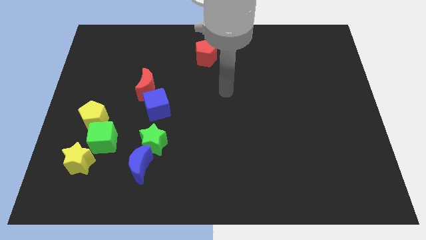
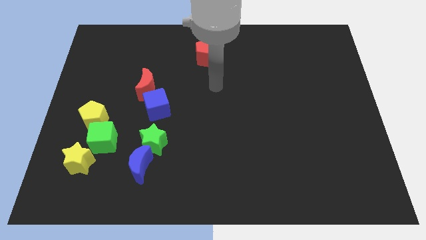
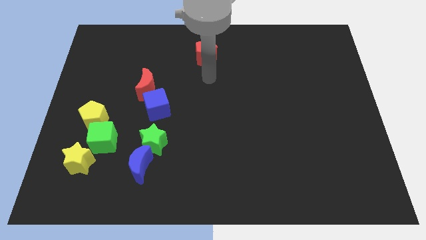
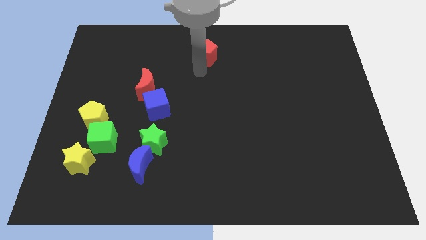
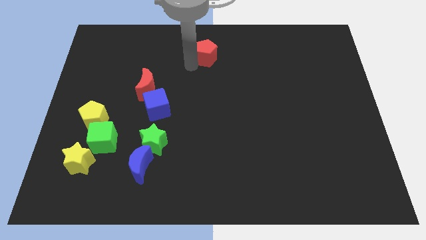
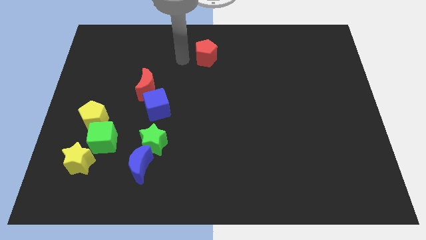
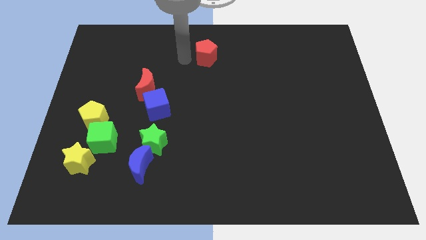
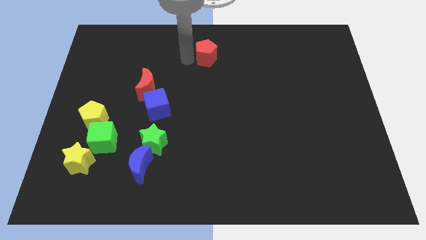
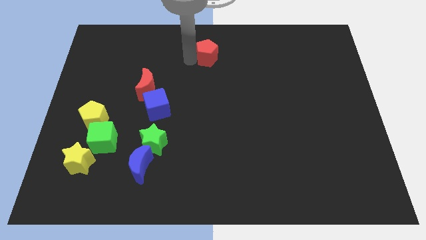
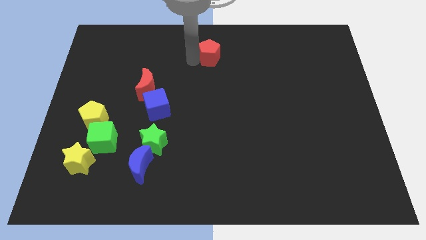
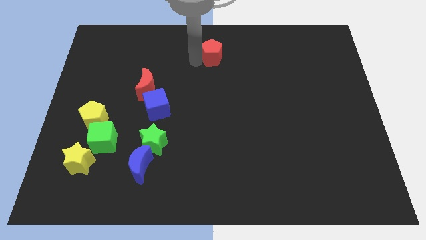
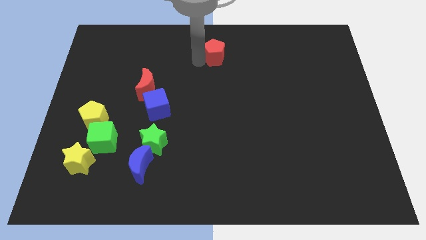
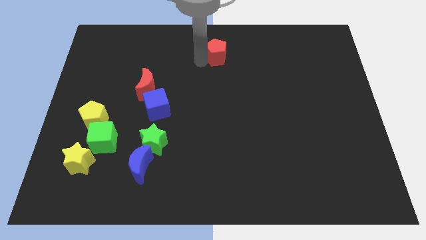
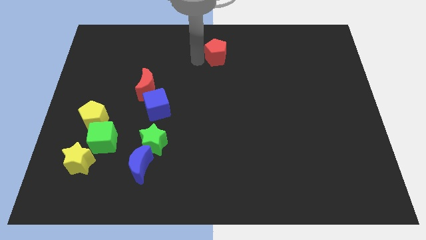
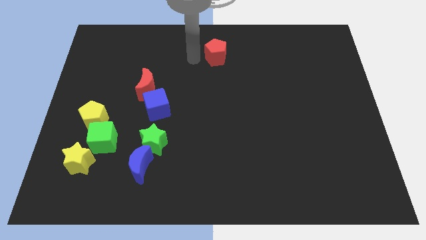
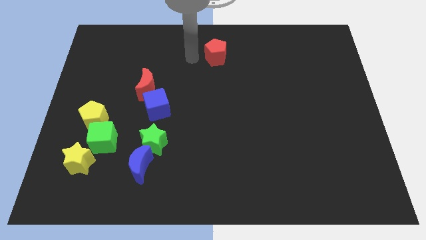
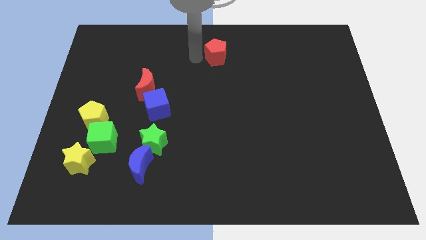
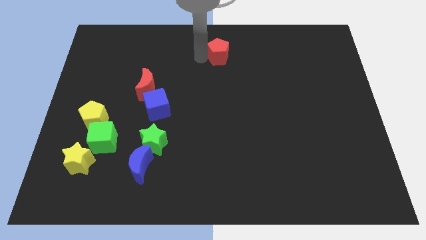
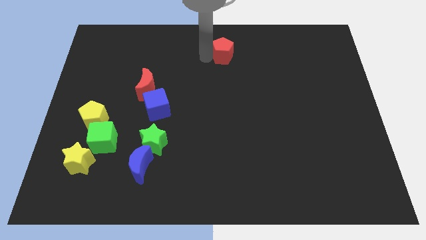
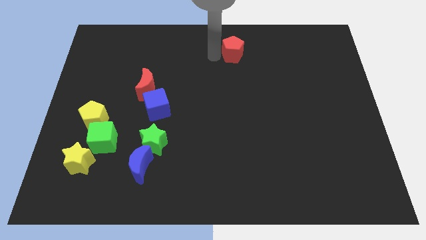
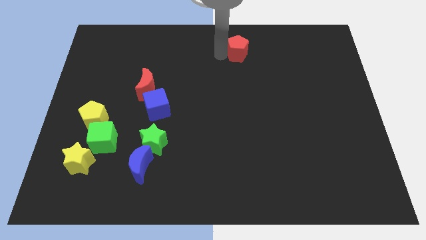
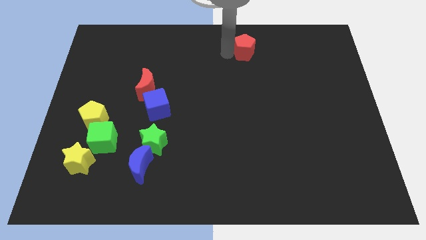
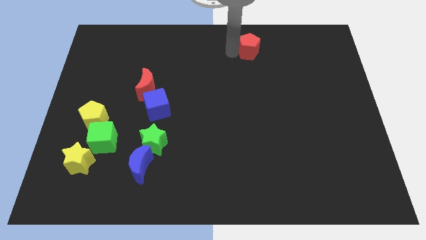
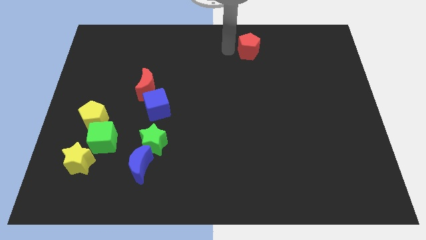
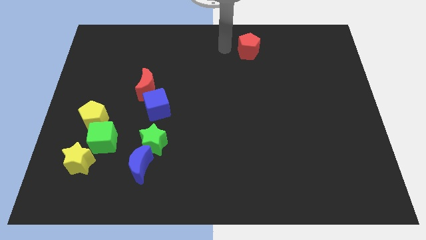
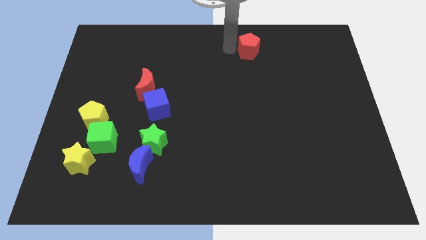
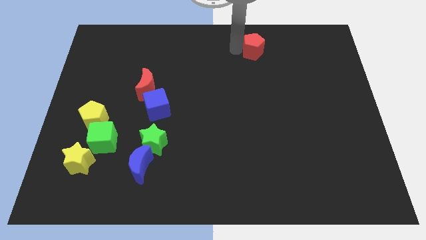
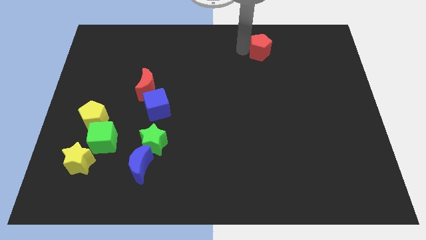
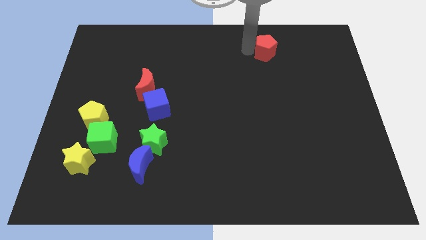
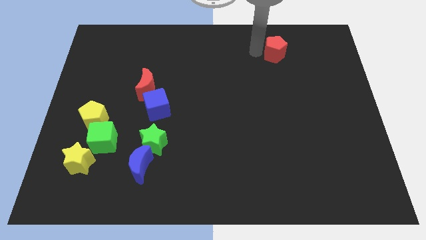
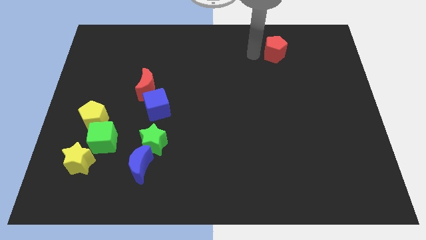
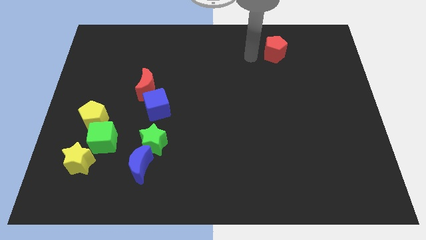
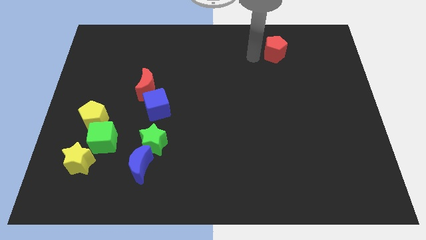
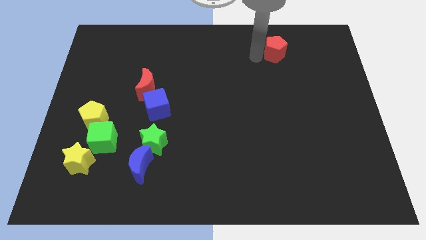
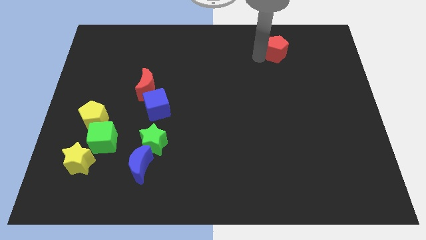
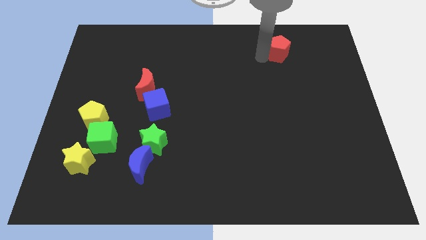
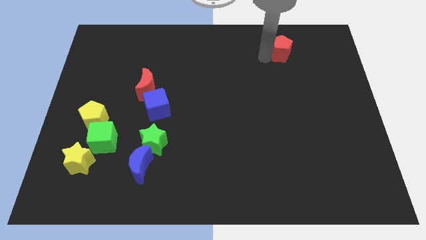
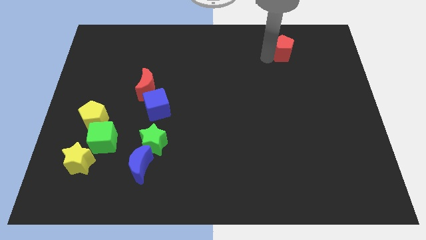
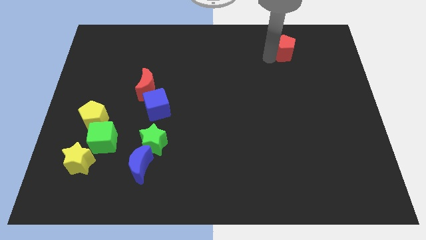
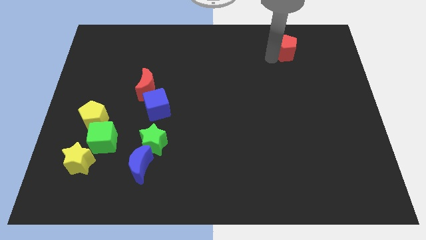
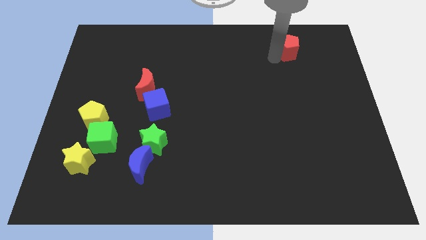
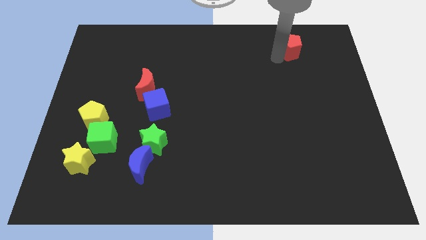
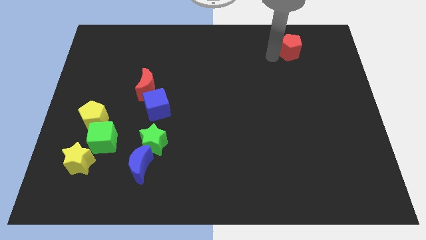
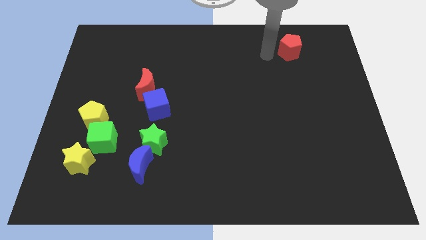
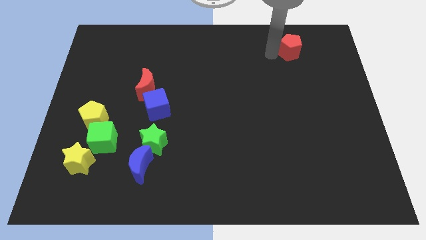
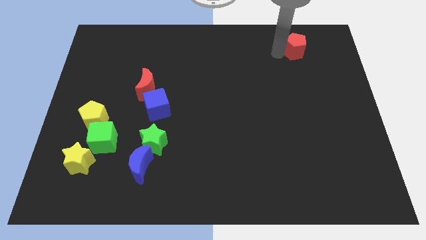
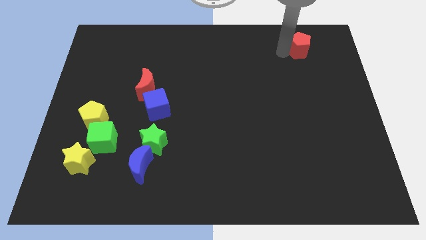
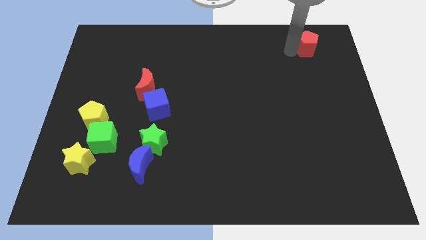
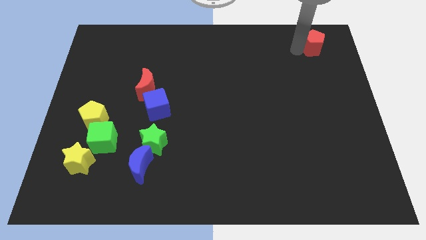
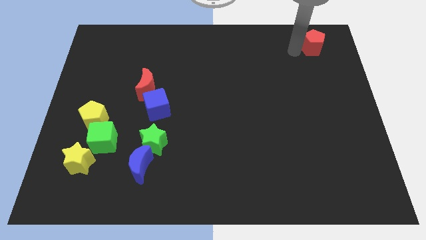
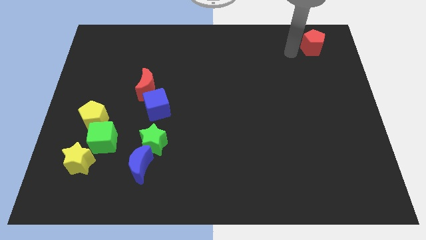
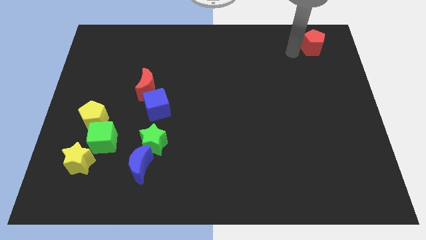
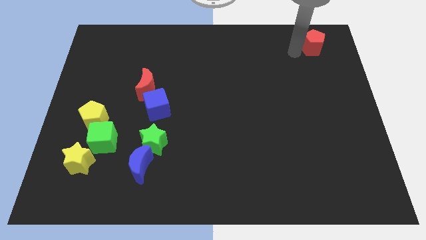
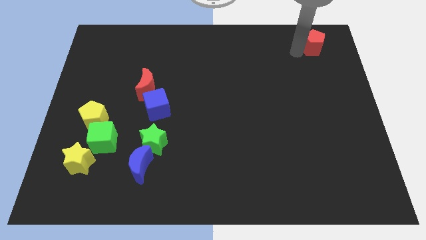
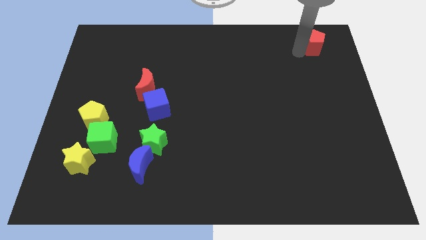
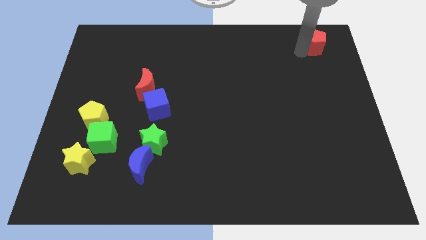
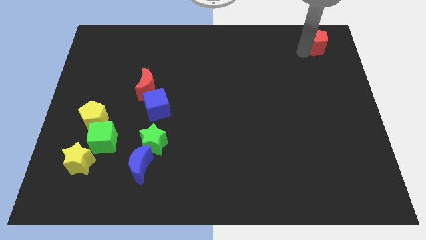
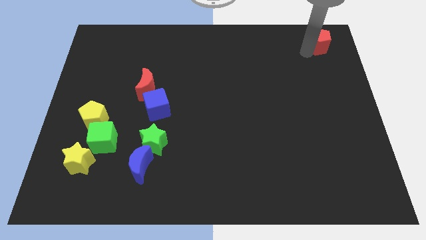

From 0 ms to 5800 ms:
push the red pentagon to the top right of the board

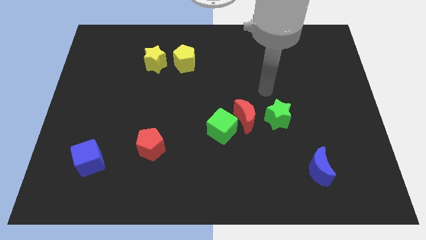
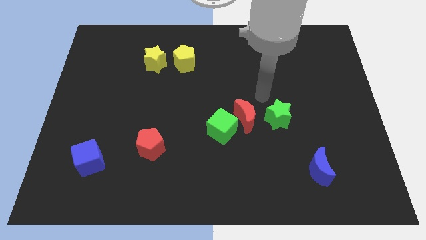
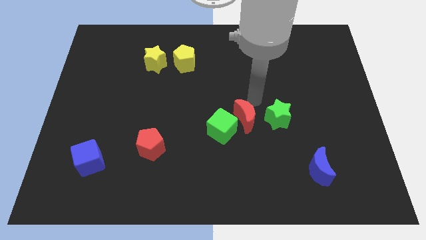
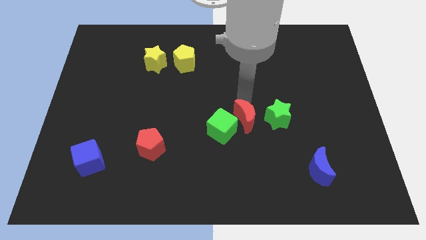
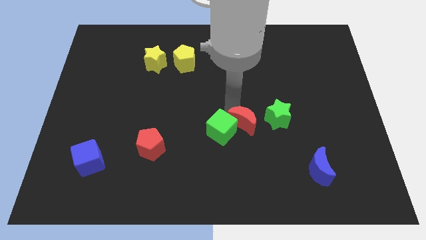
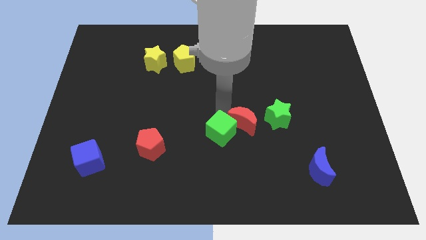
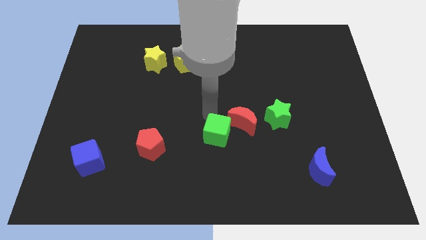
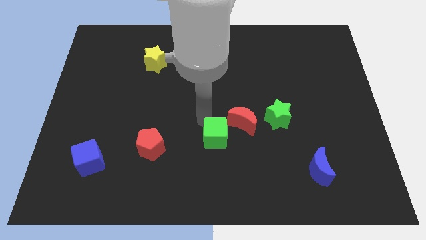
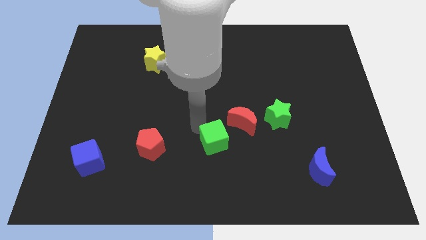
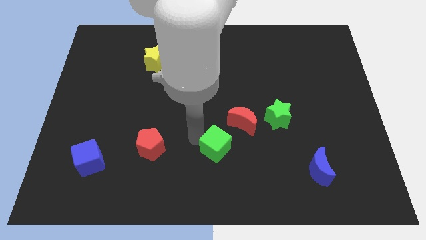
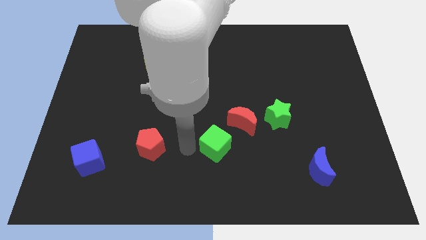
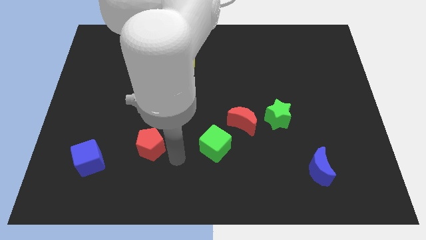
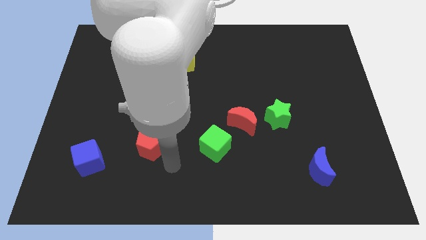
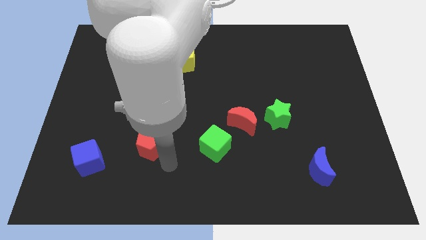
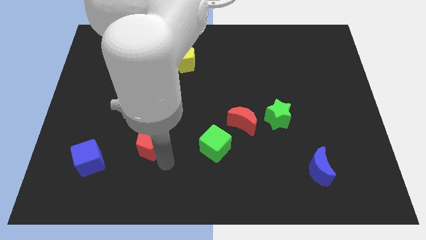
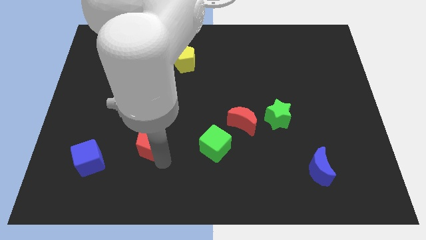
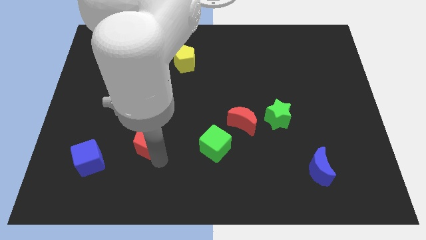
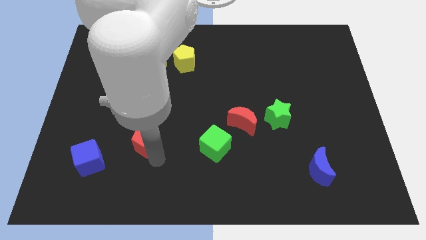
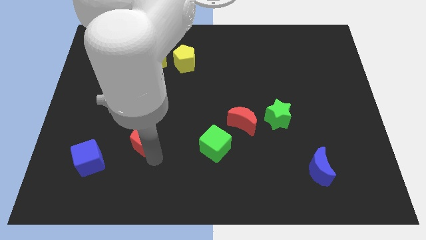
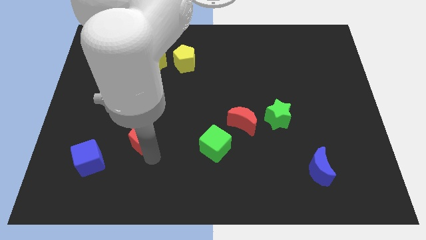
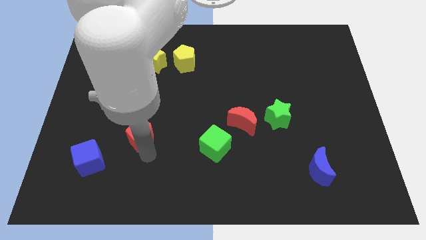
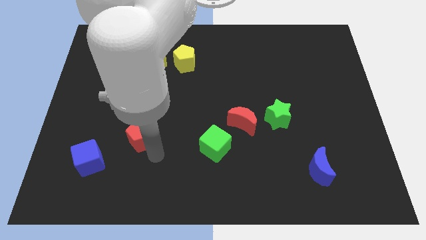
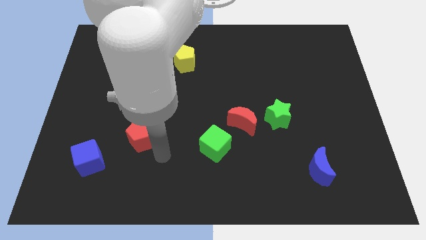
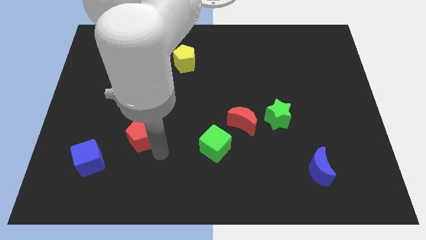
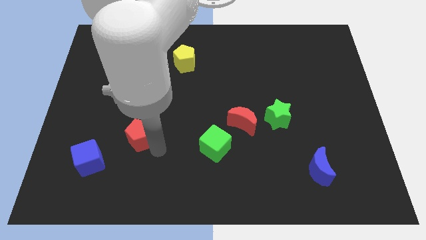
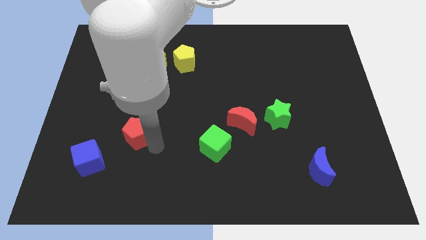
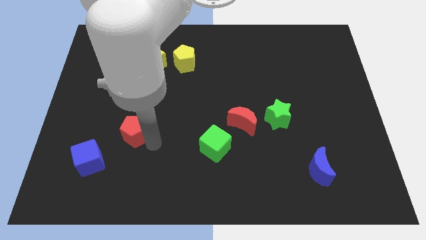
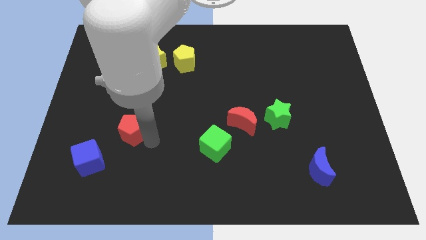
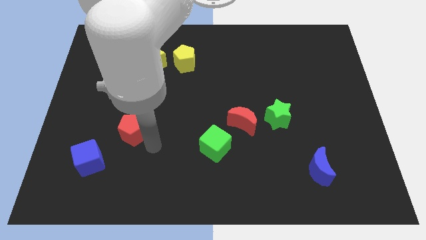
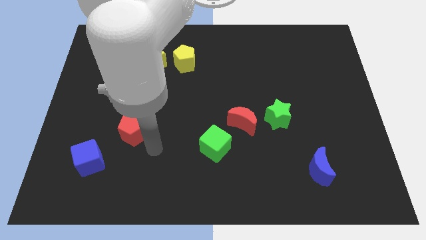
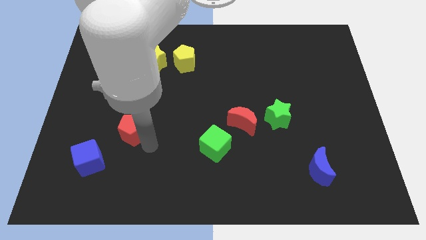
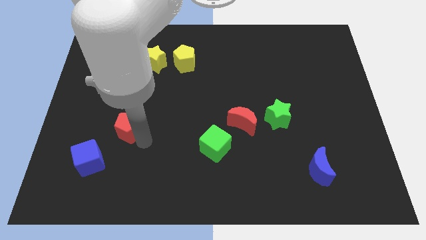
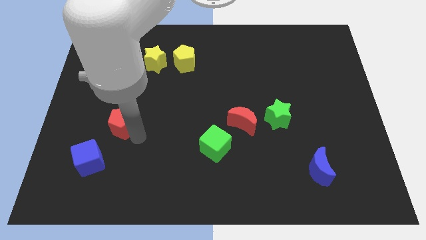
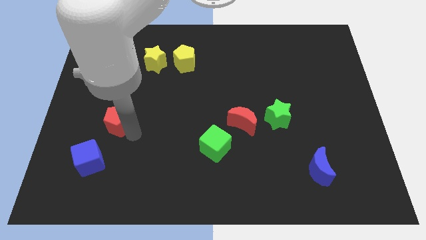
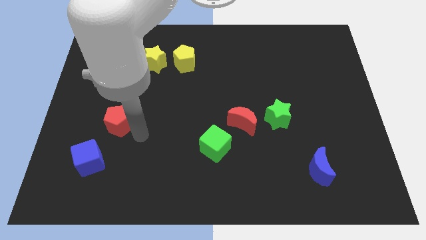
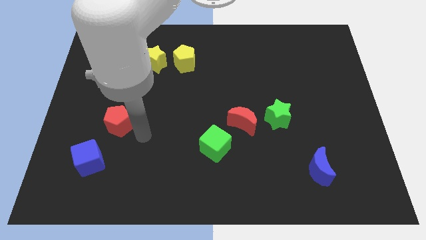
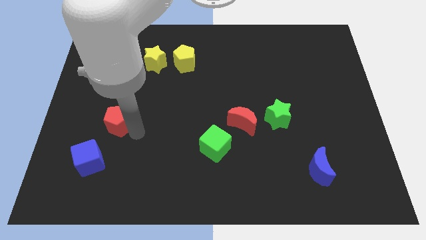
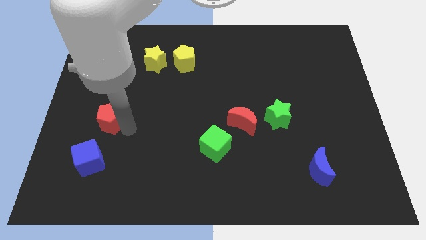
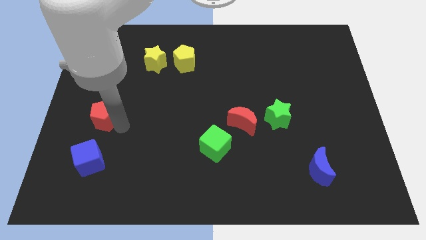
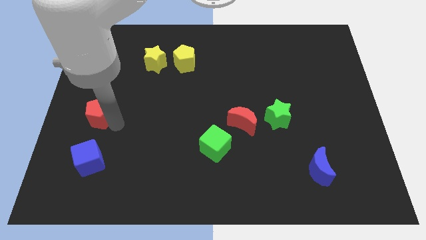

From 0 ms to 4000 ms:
move the red pentagon to the center left
